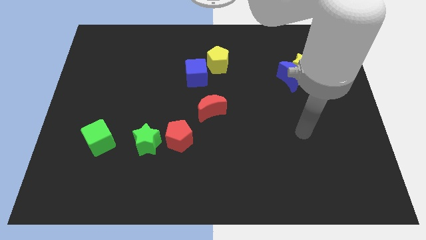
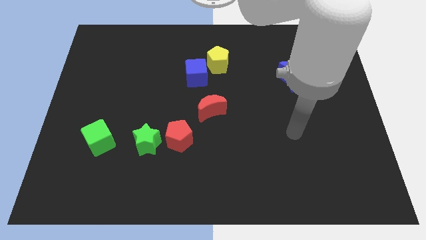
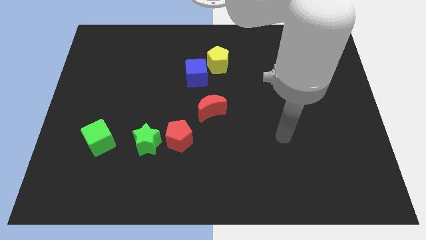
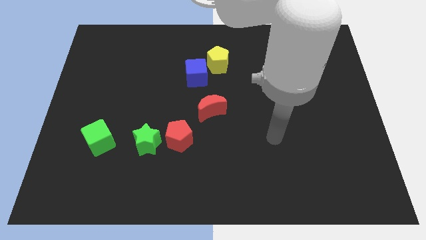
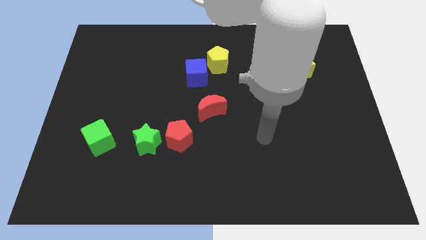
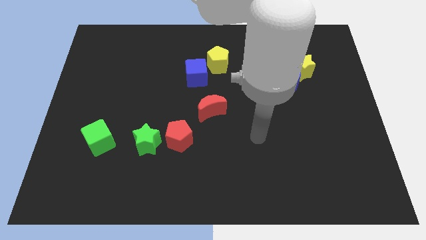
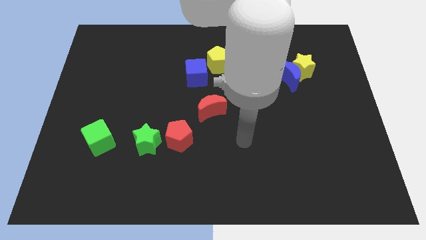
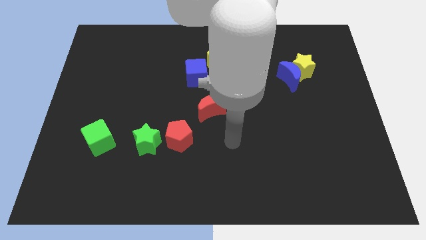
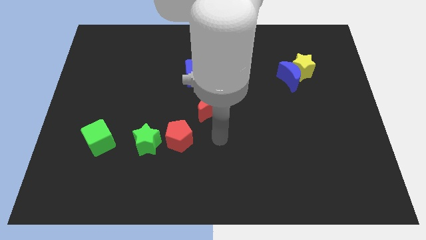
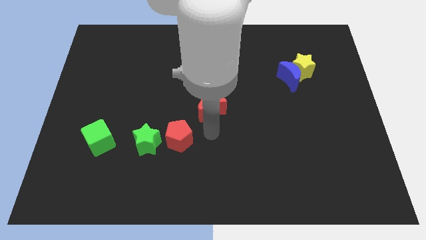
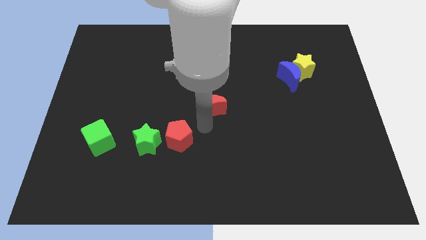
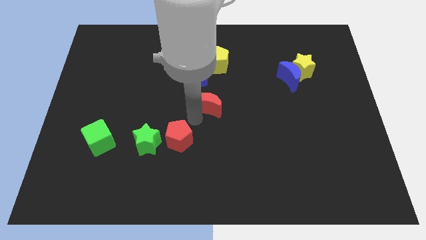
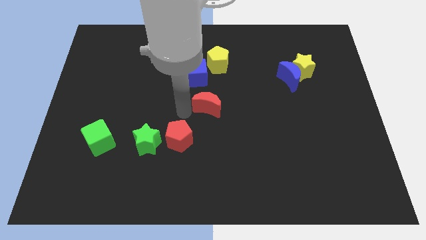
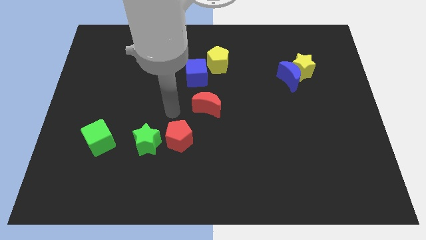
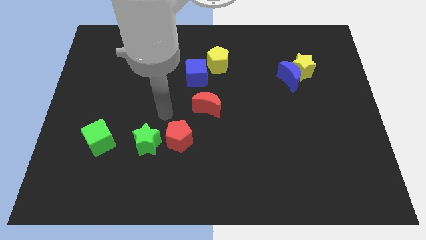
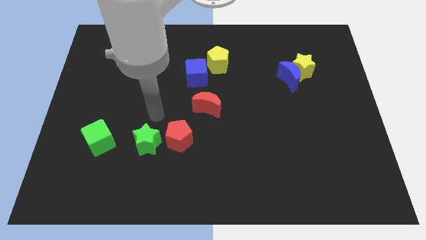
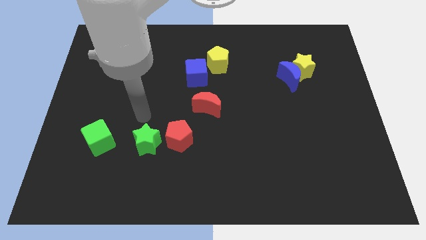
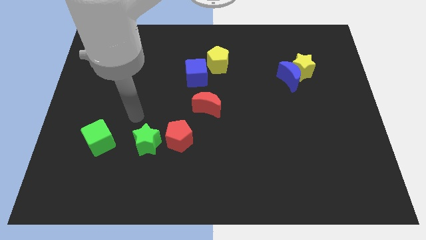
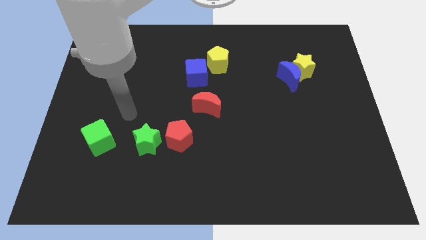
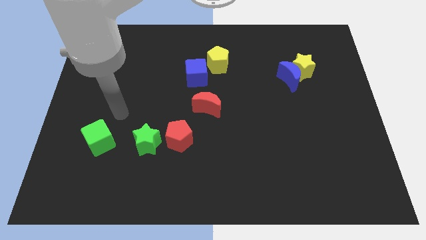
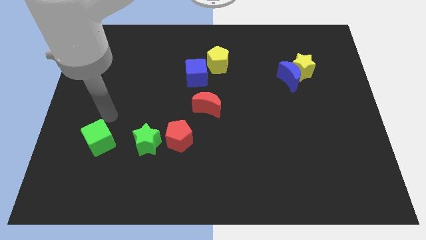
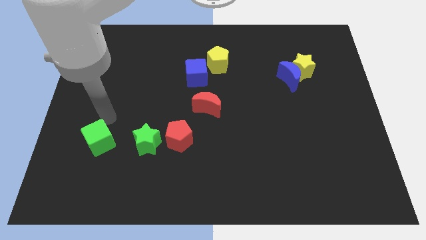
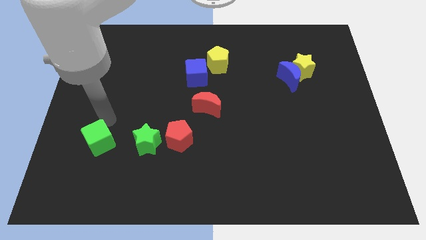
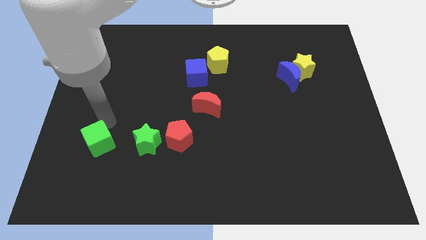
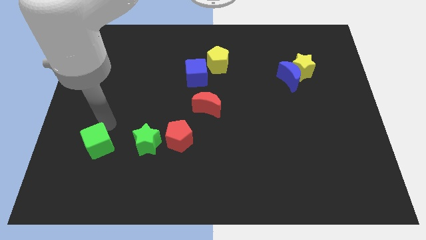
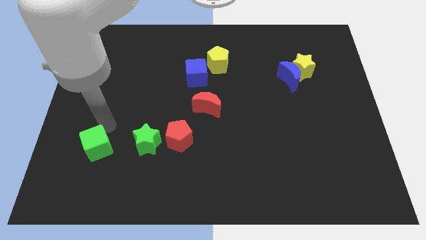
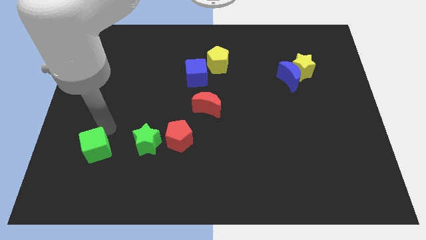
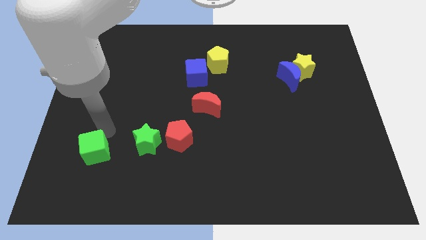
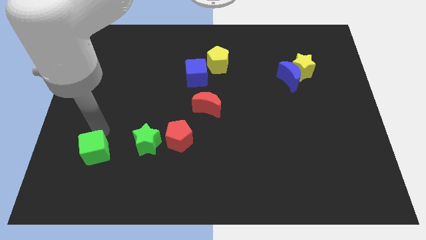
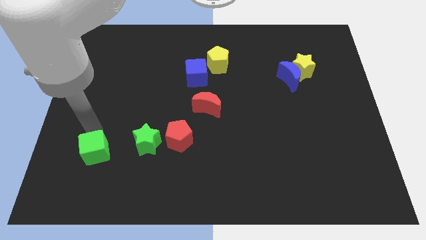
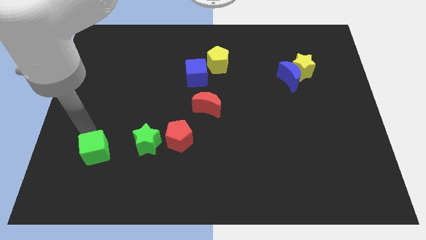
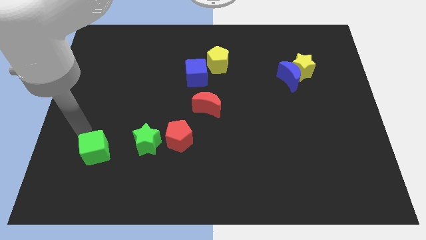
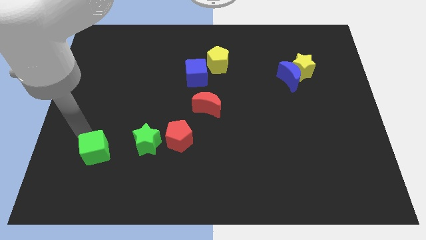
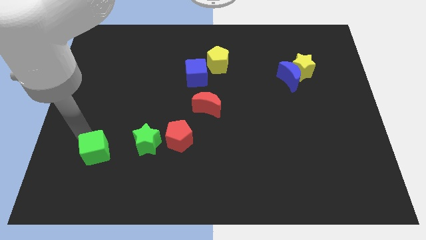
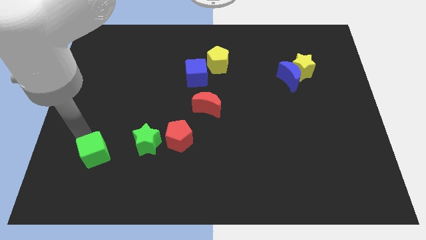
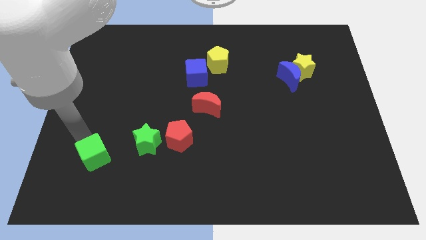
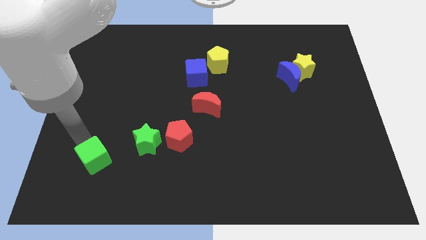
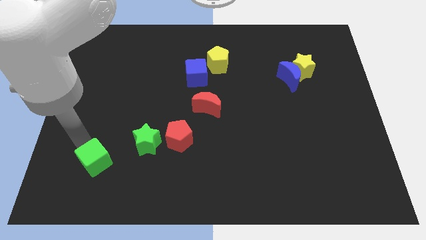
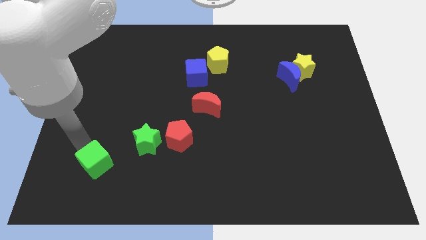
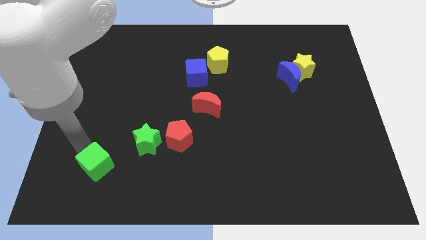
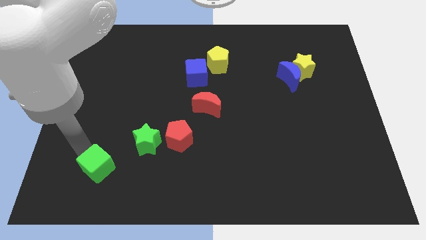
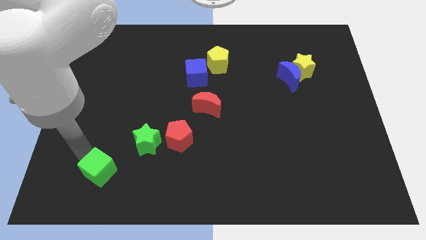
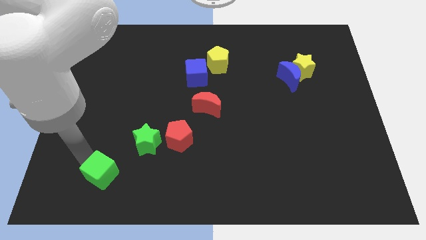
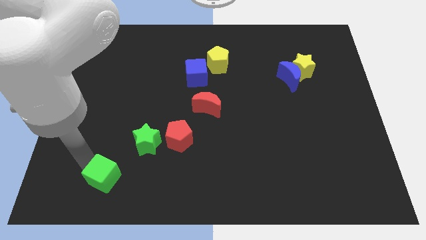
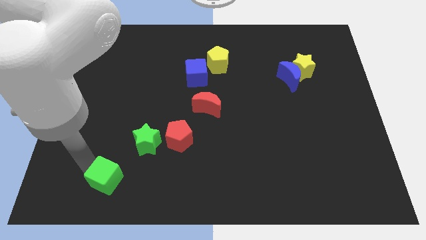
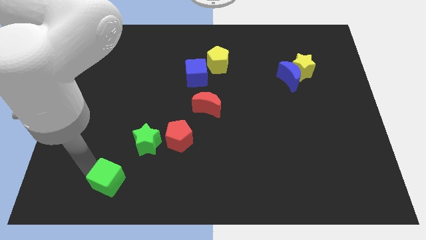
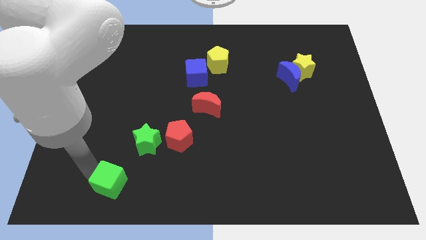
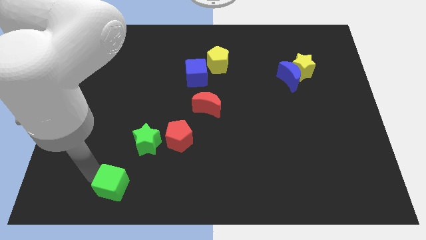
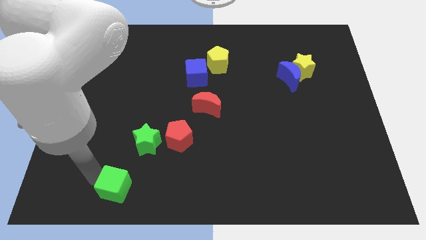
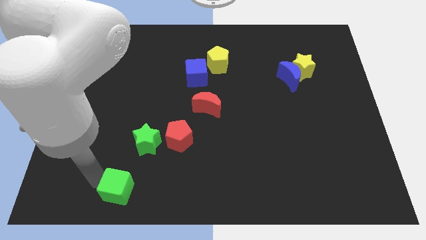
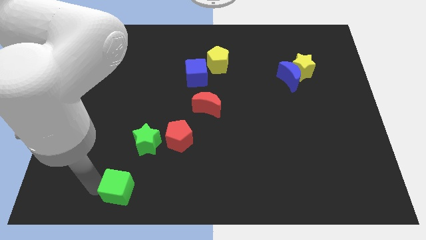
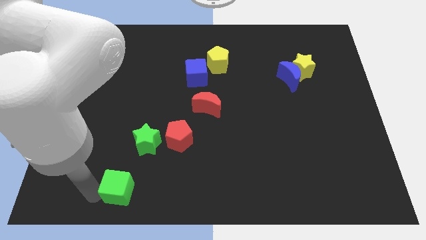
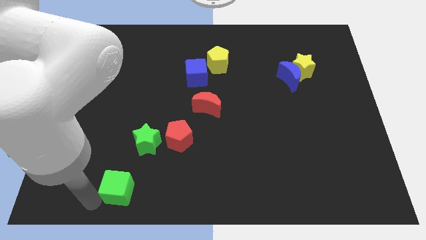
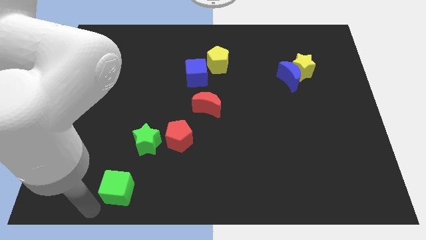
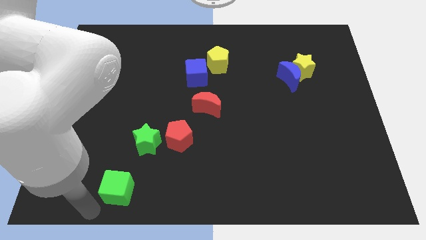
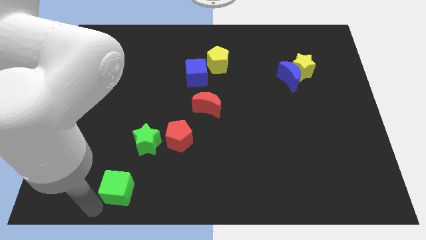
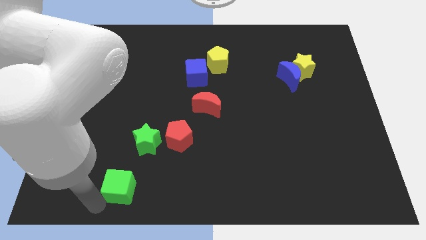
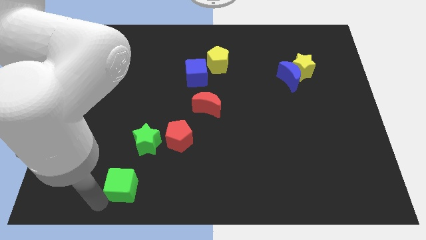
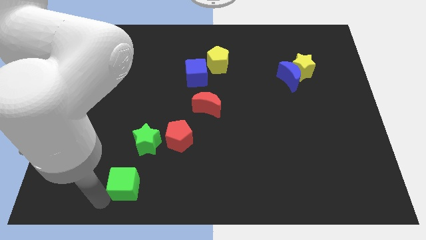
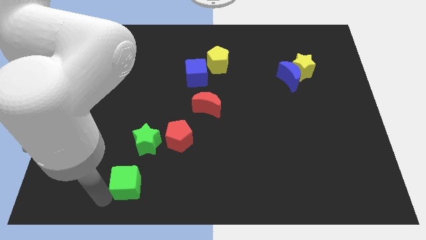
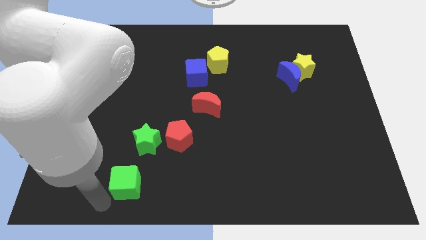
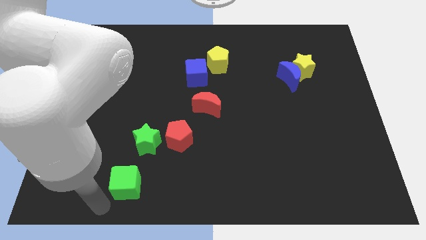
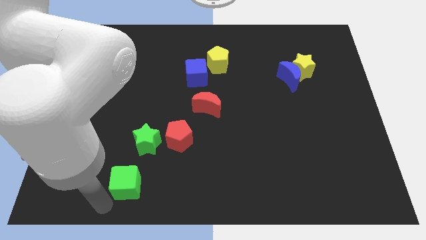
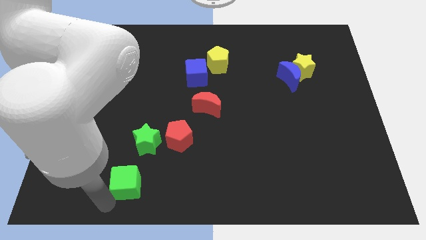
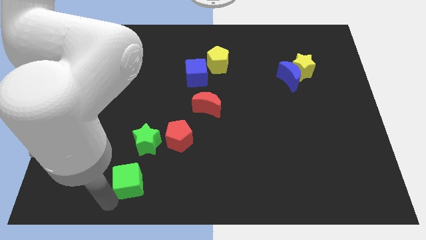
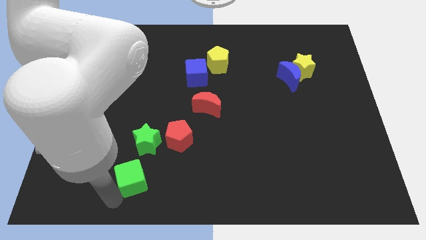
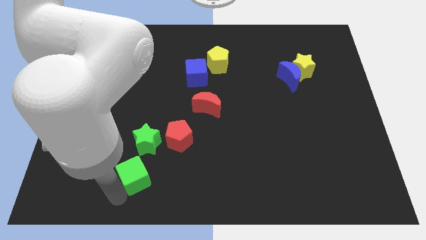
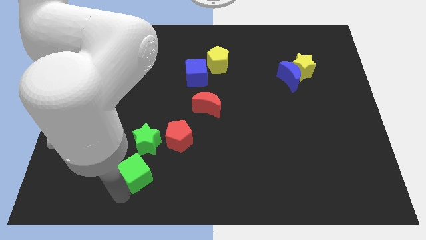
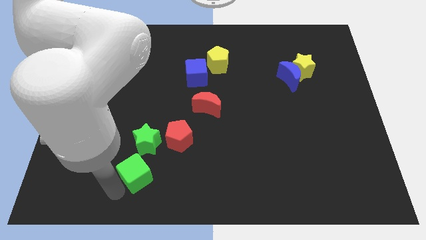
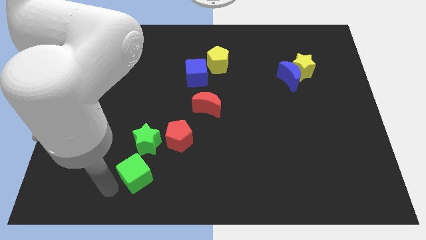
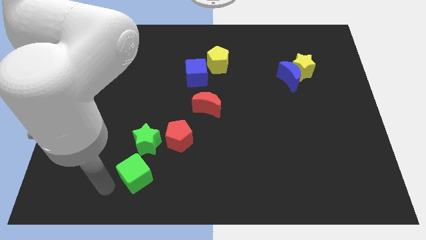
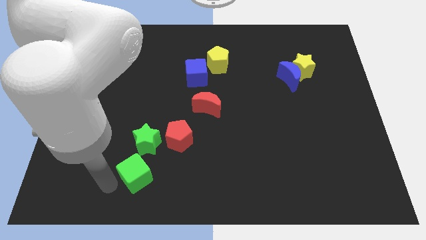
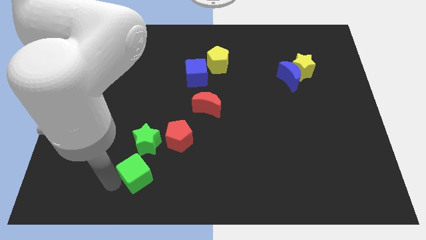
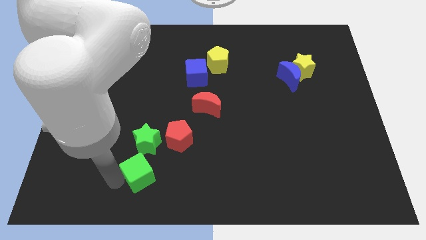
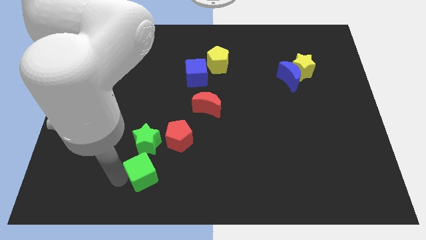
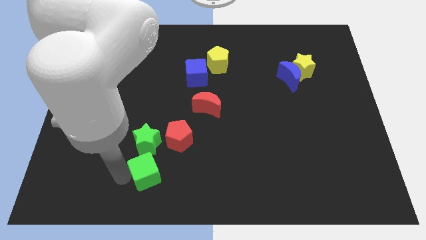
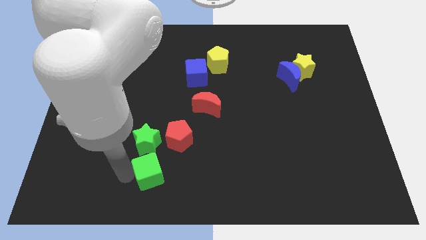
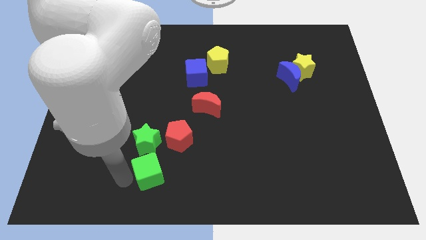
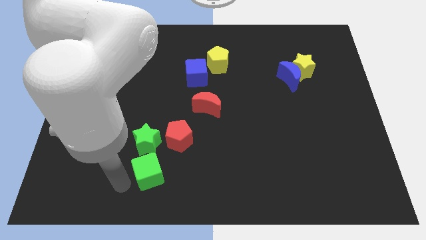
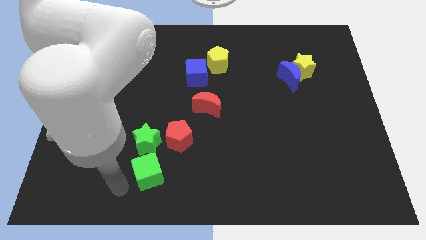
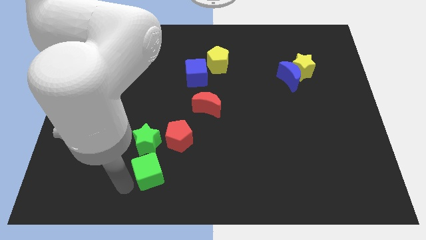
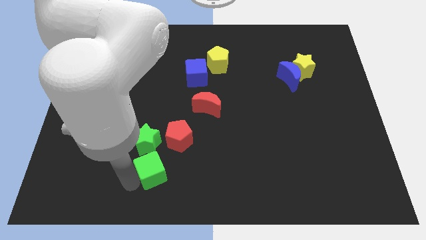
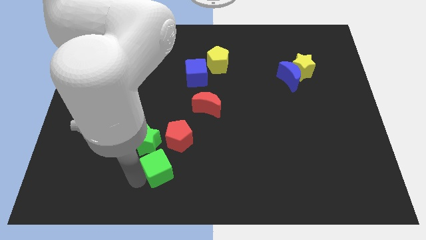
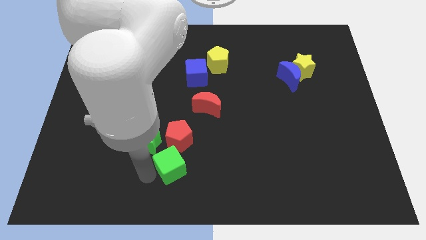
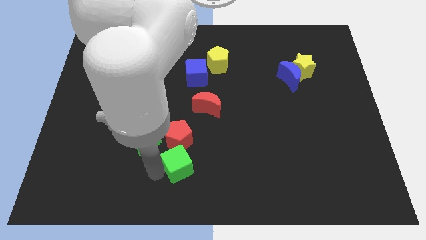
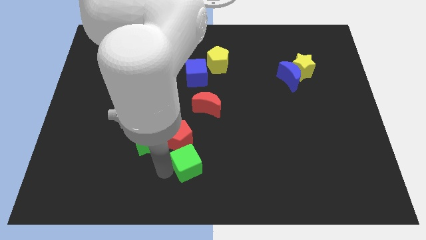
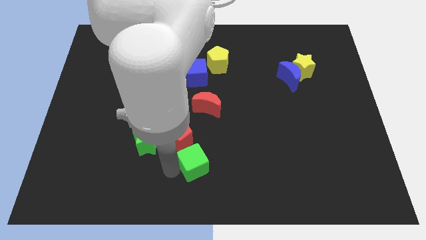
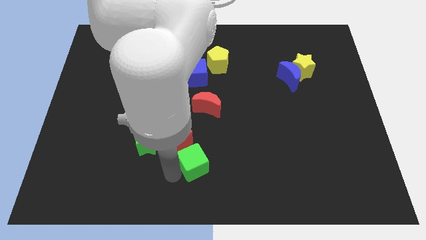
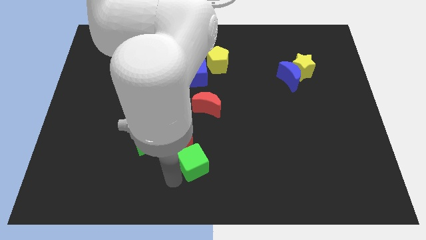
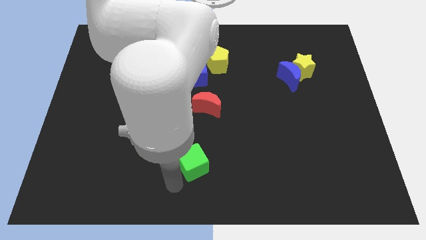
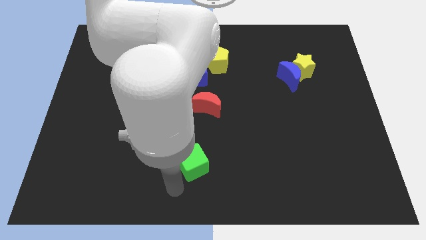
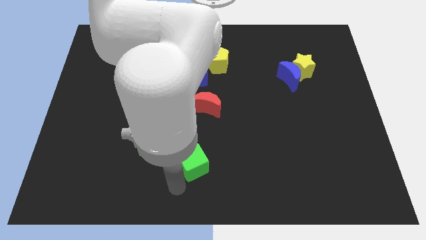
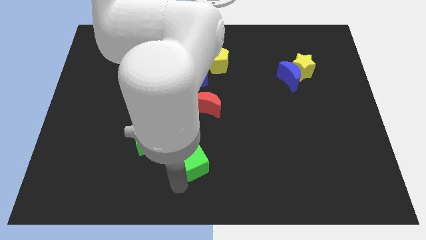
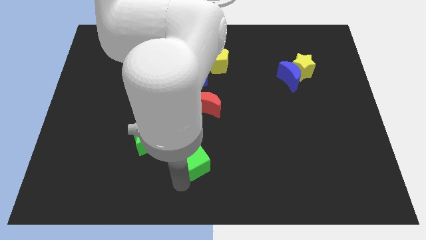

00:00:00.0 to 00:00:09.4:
push the green cube to the right
